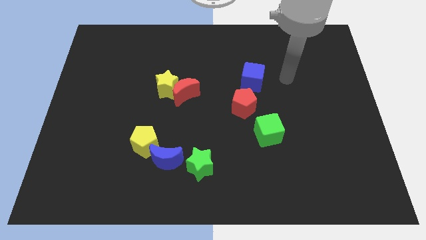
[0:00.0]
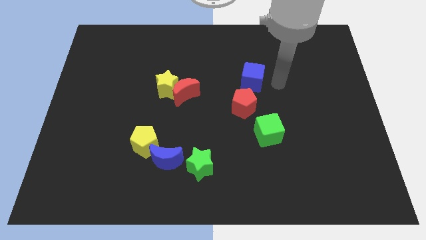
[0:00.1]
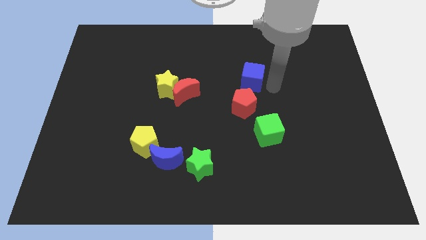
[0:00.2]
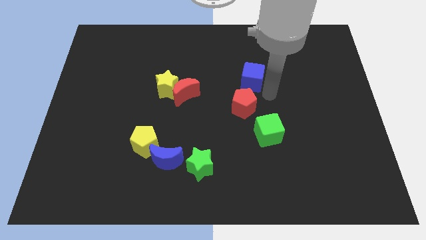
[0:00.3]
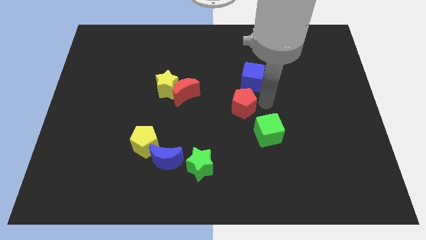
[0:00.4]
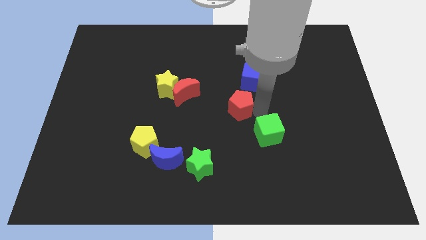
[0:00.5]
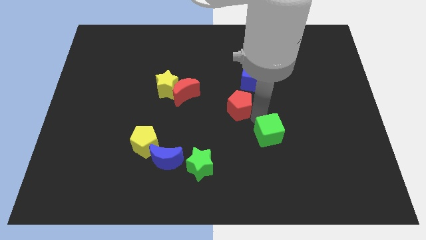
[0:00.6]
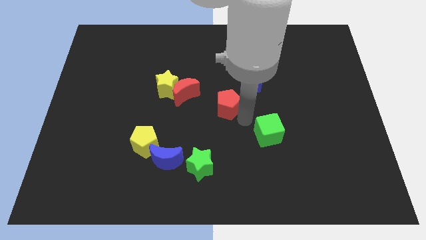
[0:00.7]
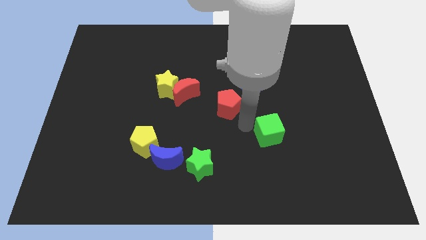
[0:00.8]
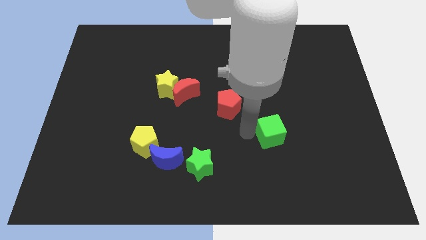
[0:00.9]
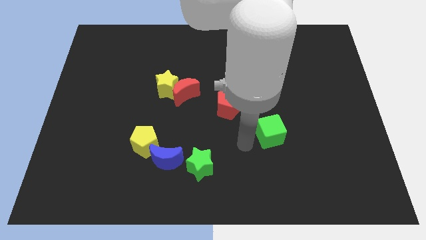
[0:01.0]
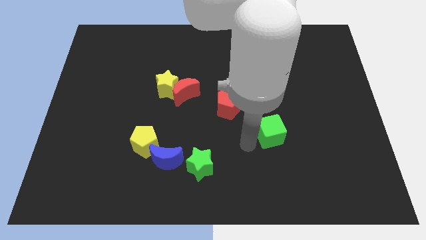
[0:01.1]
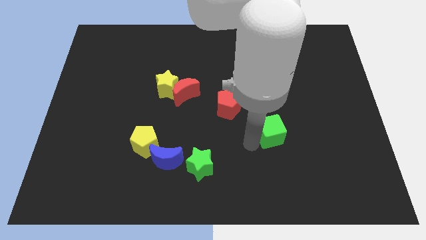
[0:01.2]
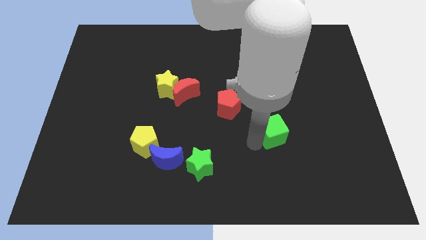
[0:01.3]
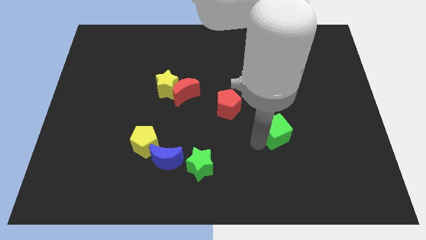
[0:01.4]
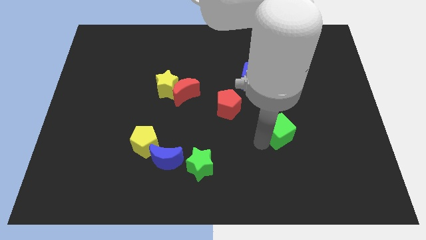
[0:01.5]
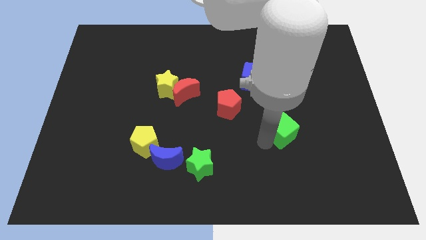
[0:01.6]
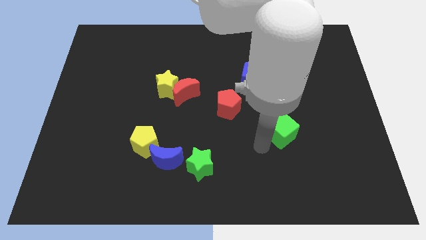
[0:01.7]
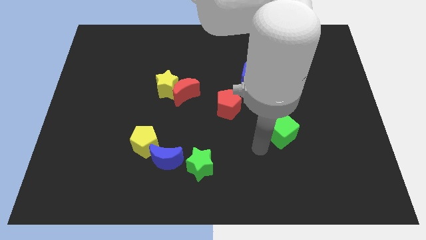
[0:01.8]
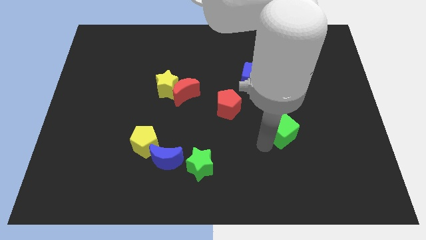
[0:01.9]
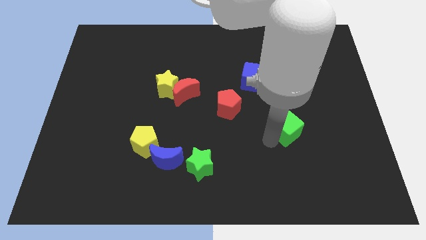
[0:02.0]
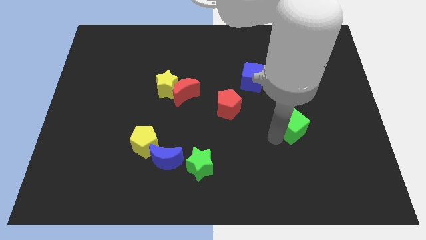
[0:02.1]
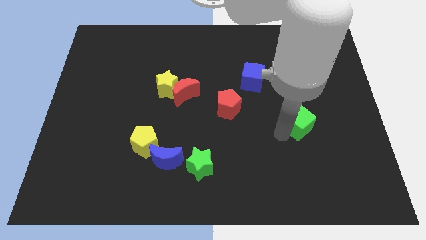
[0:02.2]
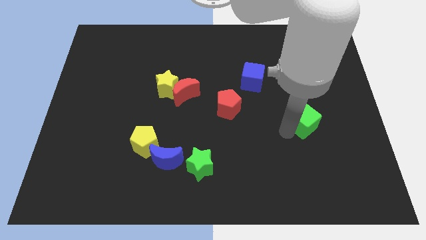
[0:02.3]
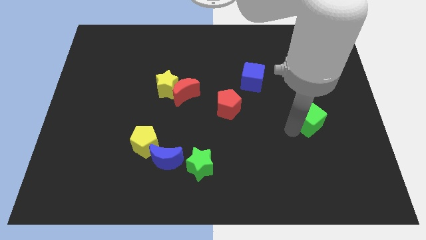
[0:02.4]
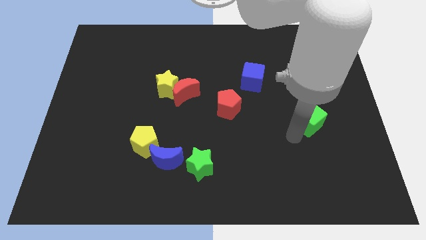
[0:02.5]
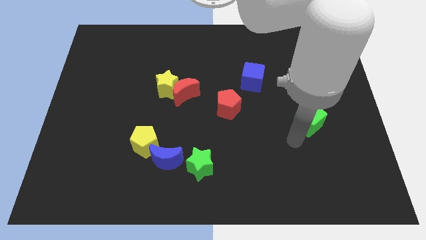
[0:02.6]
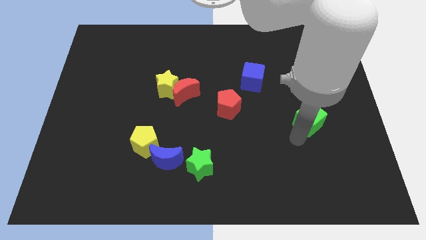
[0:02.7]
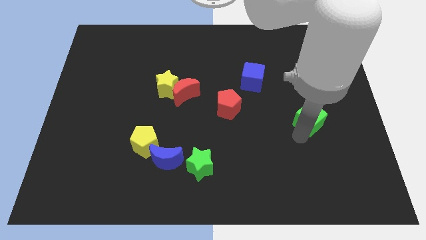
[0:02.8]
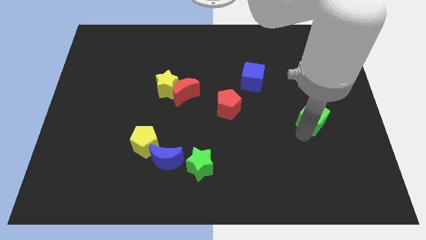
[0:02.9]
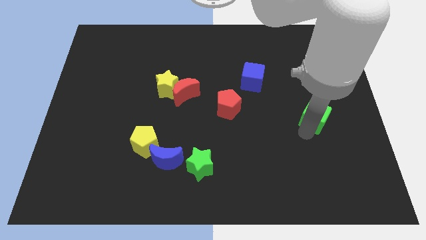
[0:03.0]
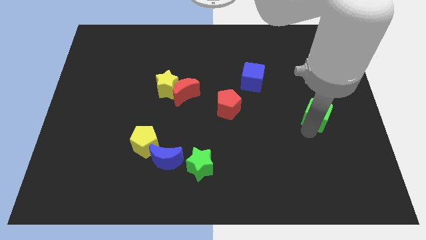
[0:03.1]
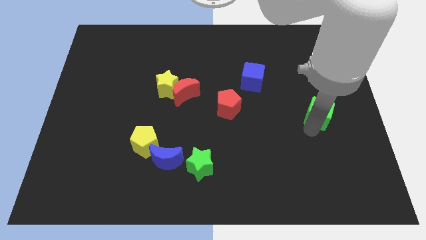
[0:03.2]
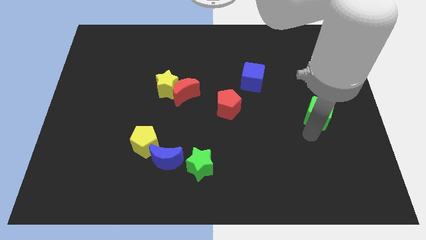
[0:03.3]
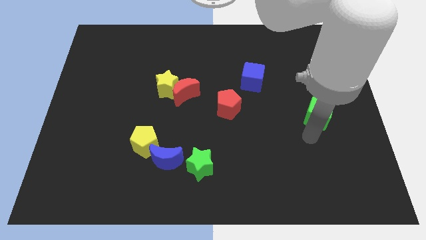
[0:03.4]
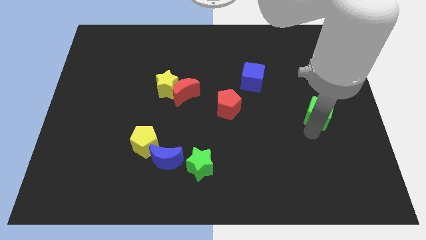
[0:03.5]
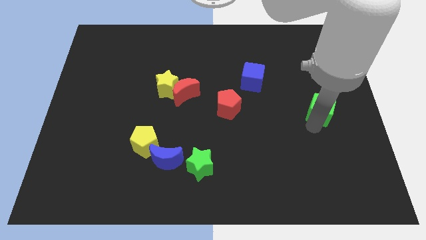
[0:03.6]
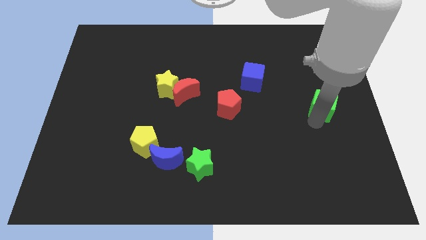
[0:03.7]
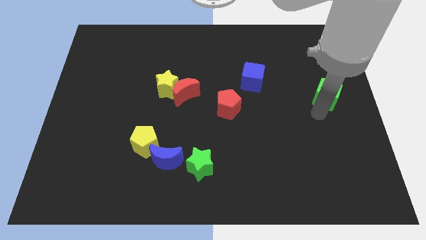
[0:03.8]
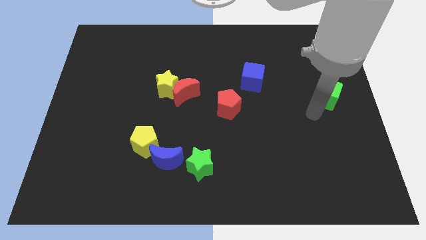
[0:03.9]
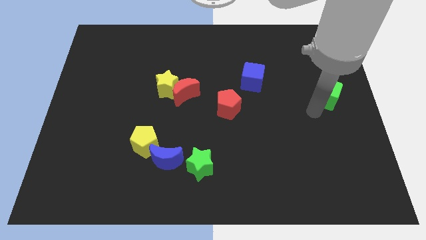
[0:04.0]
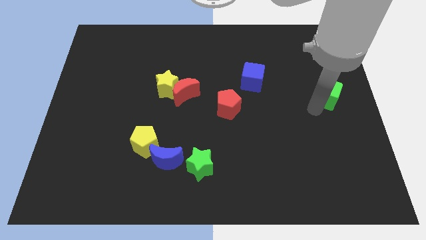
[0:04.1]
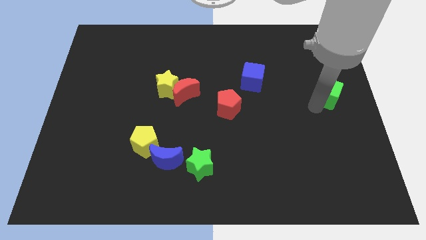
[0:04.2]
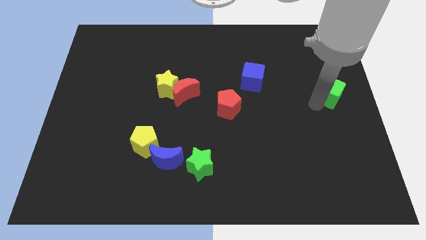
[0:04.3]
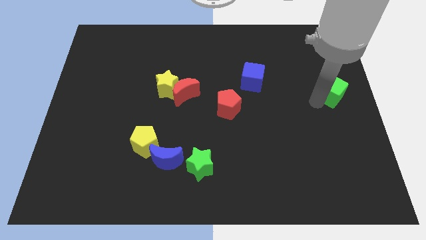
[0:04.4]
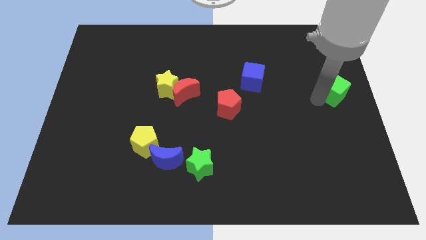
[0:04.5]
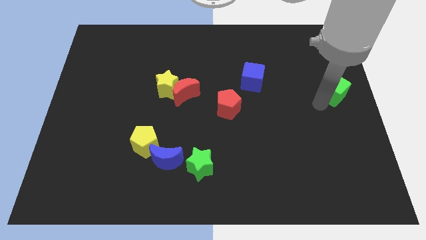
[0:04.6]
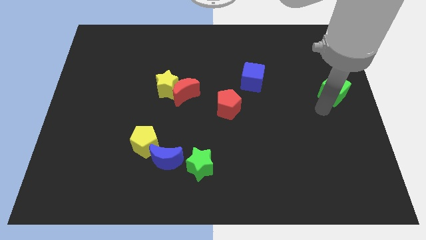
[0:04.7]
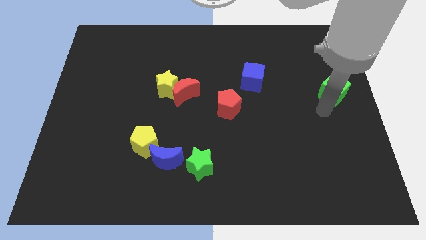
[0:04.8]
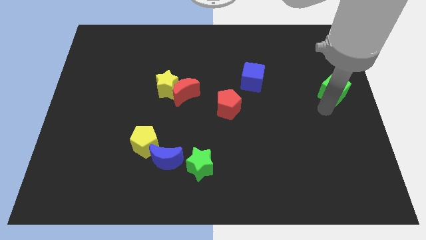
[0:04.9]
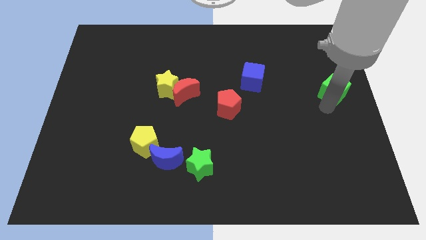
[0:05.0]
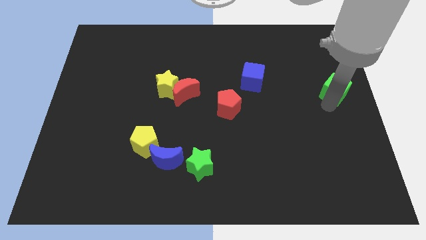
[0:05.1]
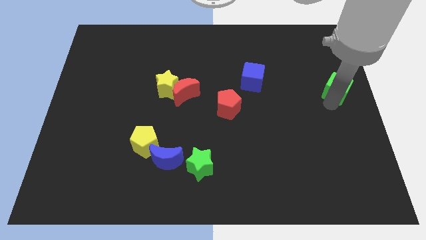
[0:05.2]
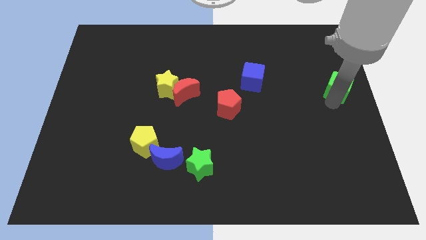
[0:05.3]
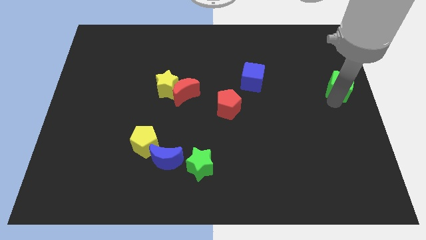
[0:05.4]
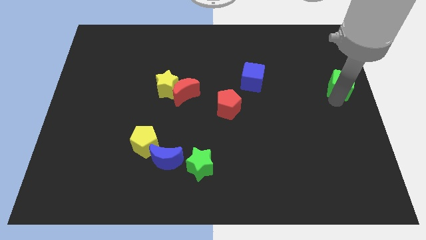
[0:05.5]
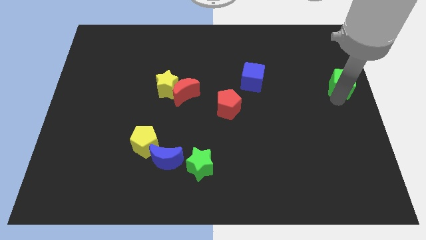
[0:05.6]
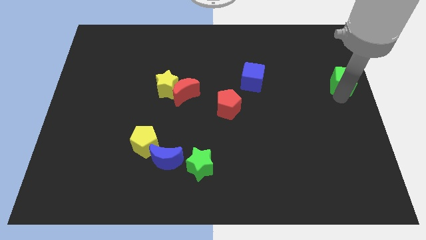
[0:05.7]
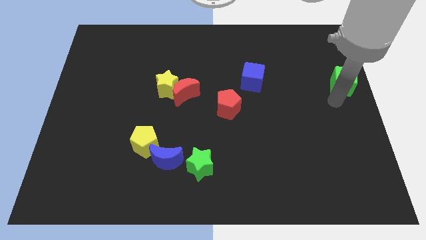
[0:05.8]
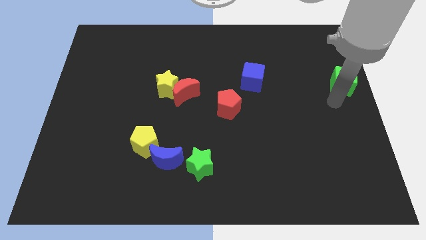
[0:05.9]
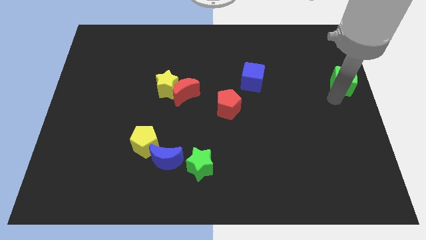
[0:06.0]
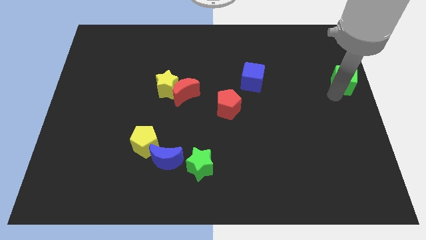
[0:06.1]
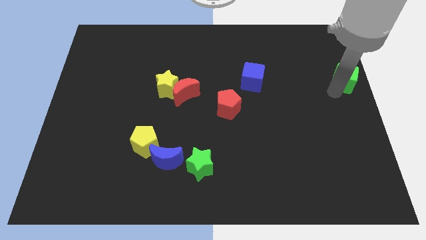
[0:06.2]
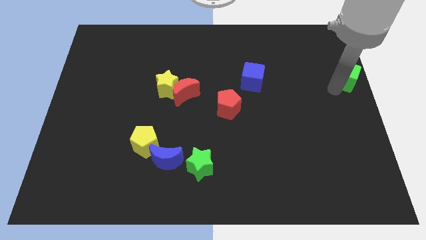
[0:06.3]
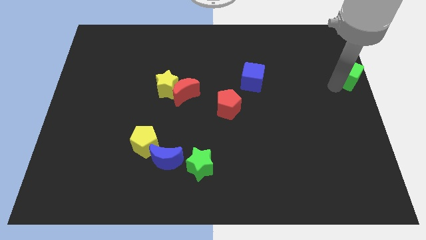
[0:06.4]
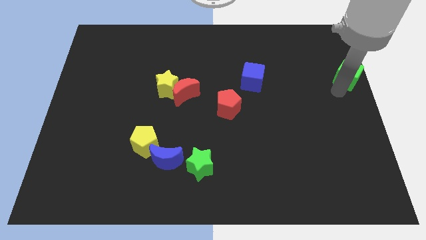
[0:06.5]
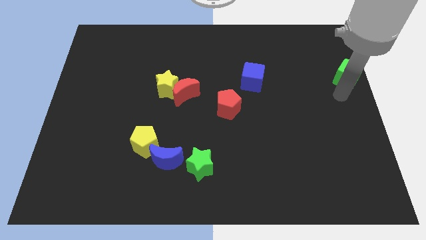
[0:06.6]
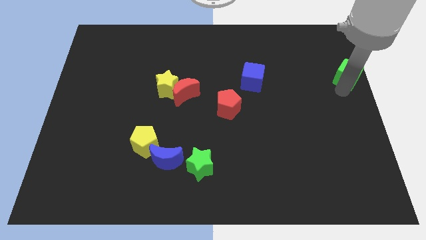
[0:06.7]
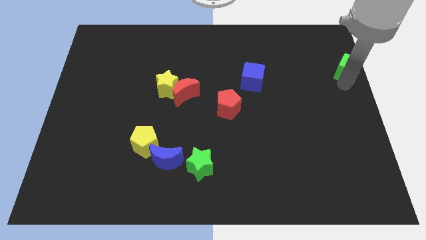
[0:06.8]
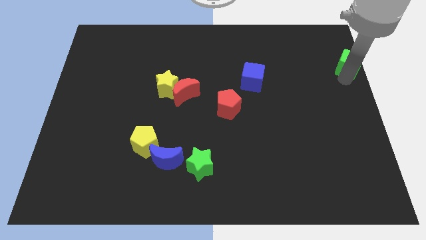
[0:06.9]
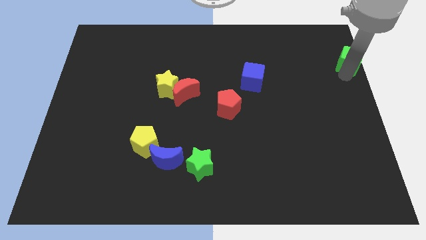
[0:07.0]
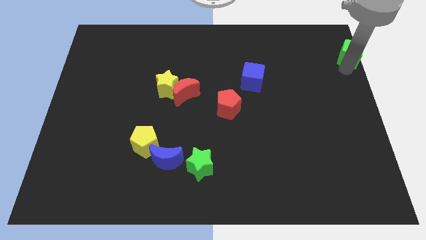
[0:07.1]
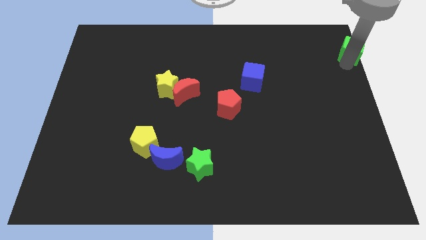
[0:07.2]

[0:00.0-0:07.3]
put the green cube to the top right corner

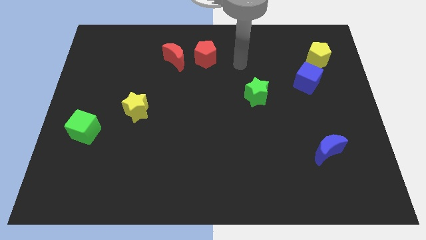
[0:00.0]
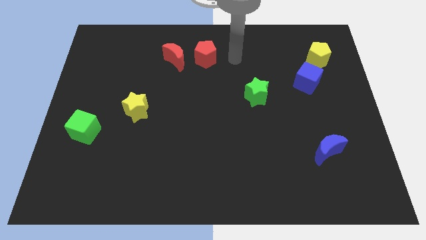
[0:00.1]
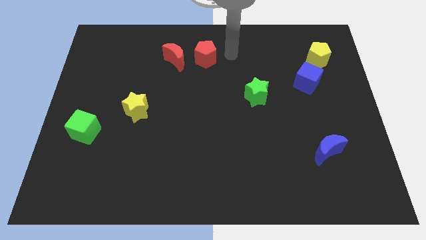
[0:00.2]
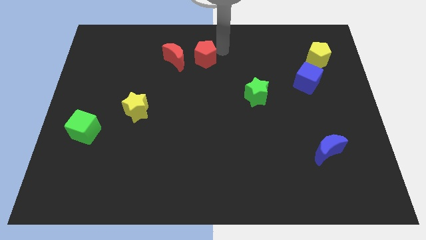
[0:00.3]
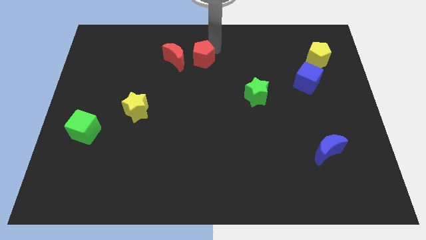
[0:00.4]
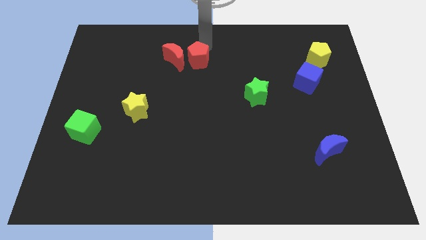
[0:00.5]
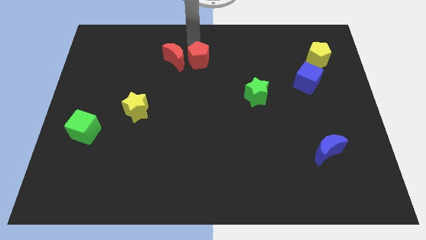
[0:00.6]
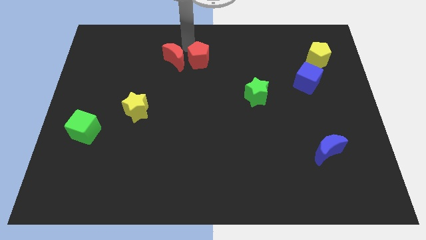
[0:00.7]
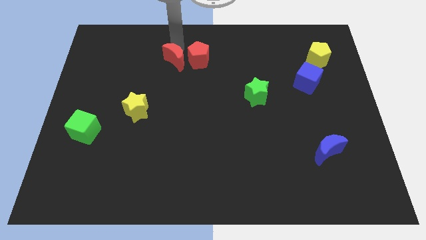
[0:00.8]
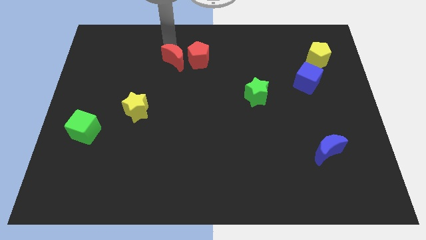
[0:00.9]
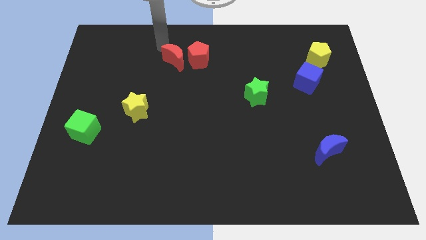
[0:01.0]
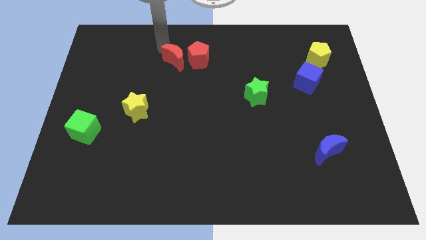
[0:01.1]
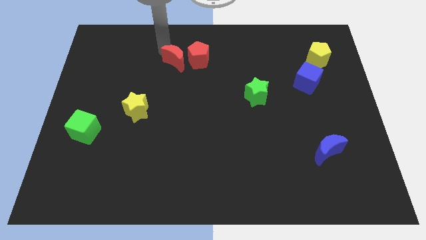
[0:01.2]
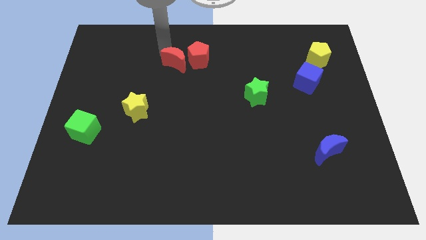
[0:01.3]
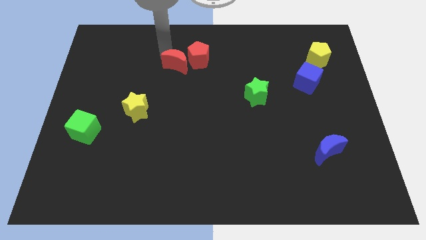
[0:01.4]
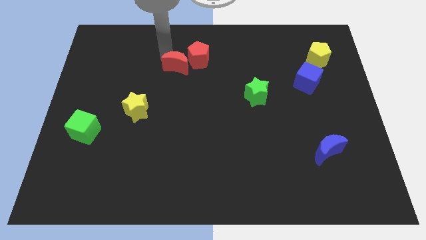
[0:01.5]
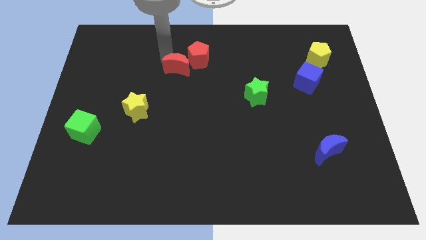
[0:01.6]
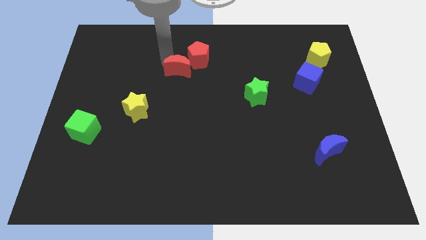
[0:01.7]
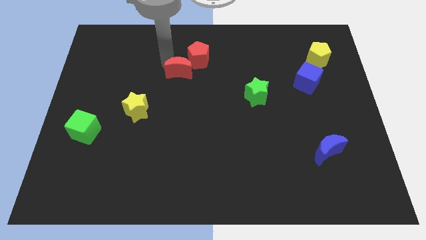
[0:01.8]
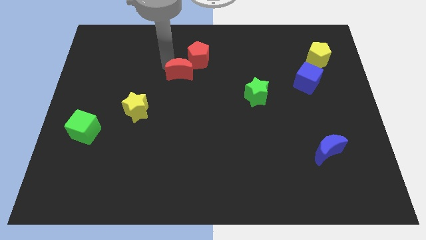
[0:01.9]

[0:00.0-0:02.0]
put the red moon to the middle of the board
